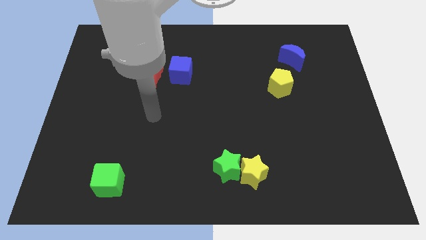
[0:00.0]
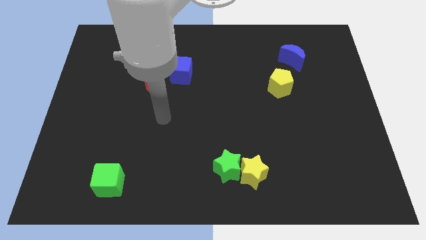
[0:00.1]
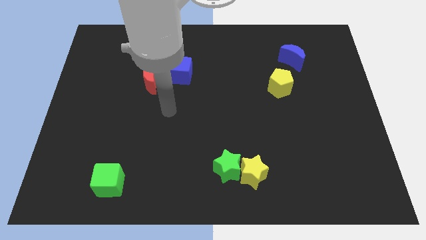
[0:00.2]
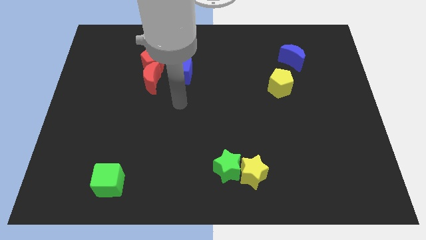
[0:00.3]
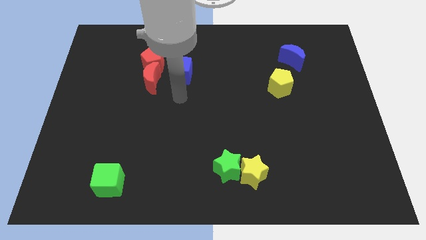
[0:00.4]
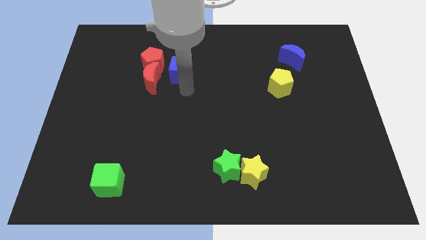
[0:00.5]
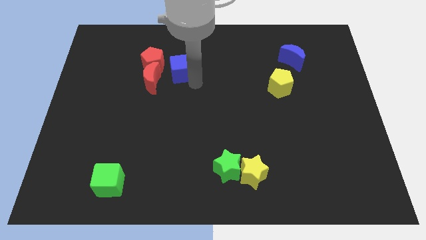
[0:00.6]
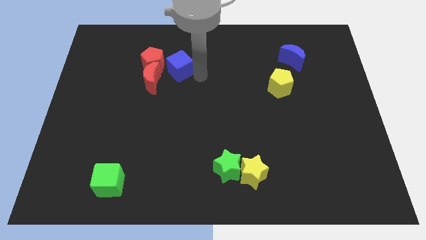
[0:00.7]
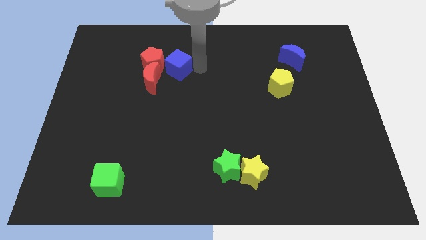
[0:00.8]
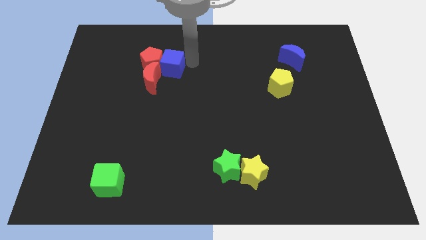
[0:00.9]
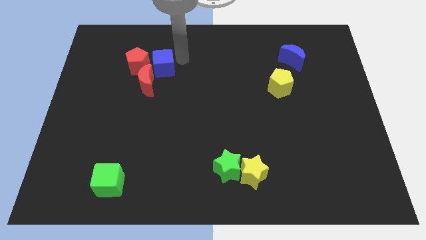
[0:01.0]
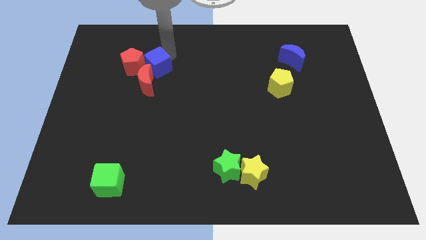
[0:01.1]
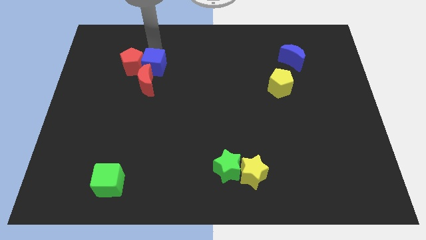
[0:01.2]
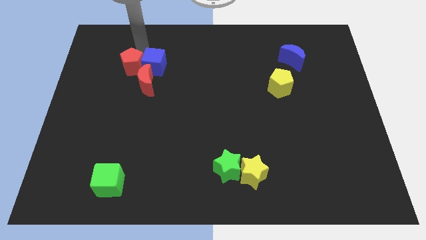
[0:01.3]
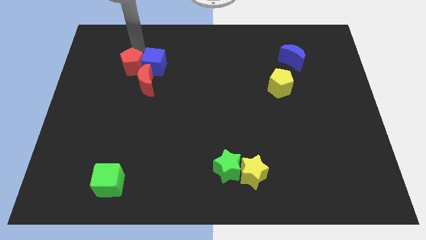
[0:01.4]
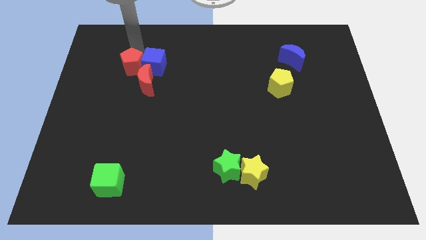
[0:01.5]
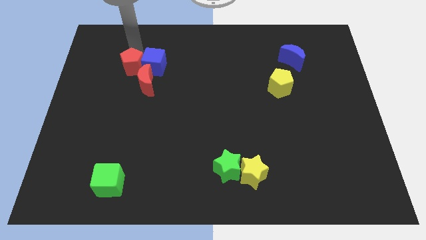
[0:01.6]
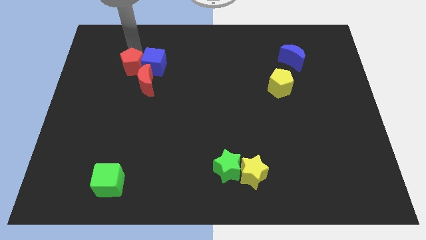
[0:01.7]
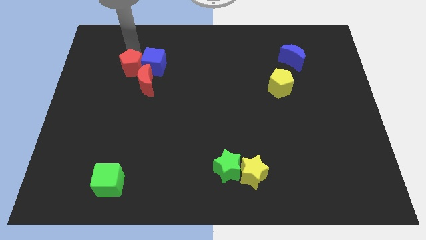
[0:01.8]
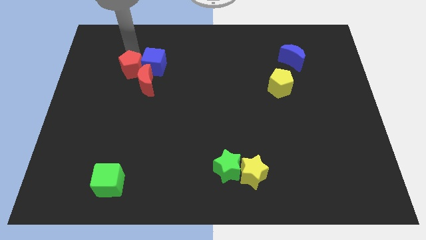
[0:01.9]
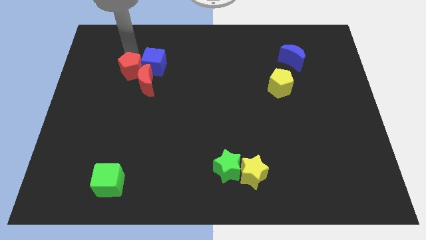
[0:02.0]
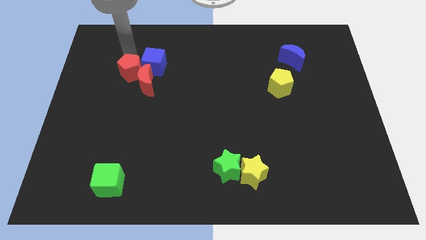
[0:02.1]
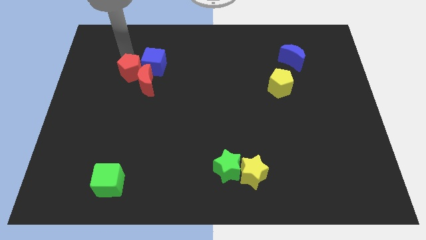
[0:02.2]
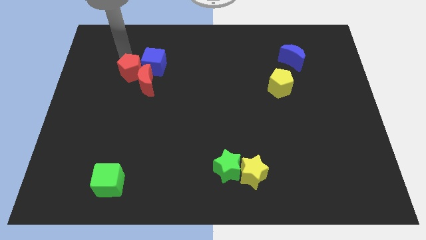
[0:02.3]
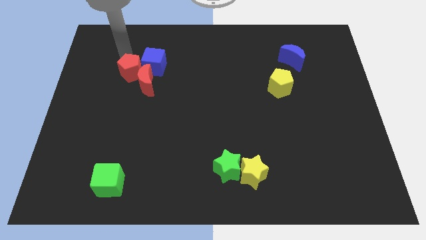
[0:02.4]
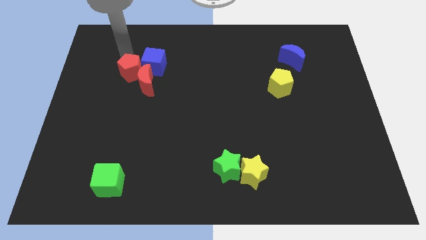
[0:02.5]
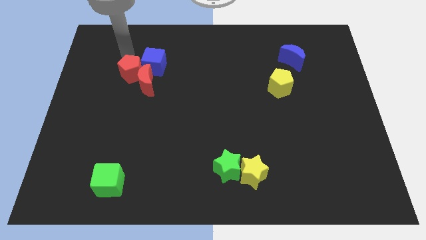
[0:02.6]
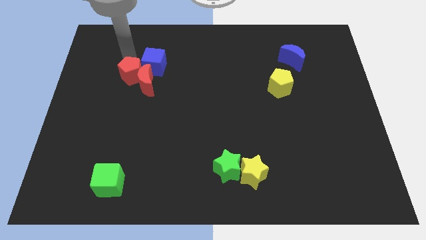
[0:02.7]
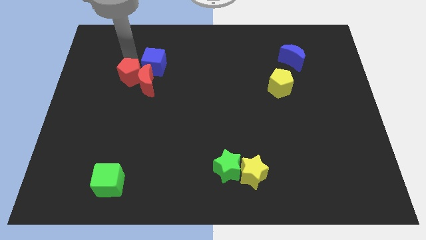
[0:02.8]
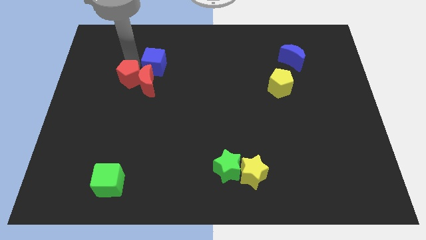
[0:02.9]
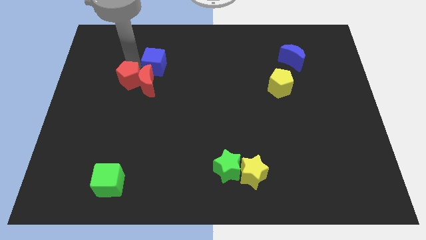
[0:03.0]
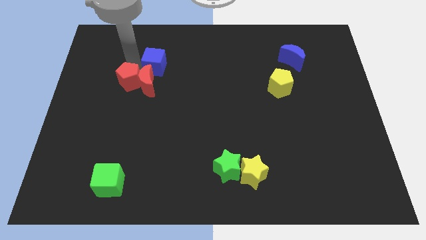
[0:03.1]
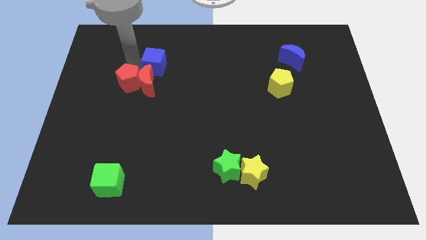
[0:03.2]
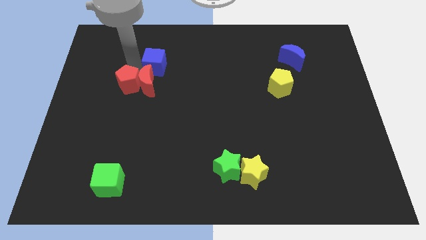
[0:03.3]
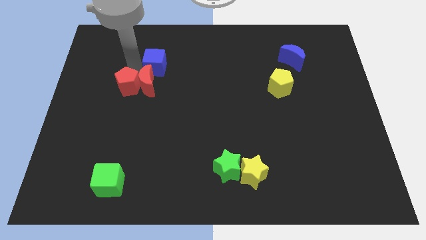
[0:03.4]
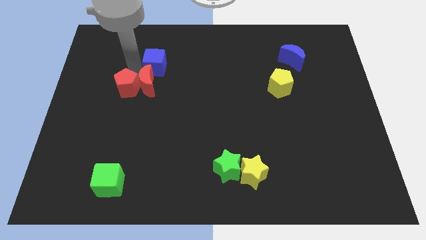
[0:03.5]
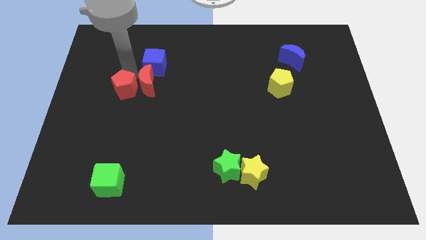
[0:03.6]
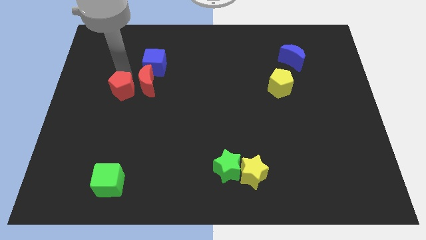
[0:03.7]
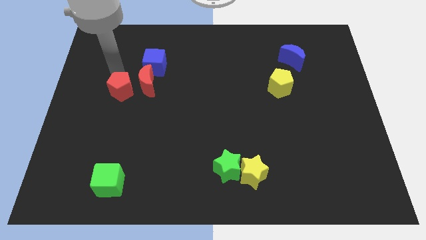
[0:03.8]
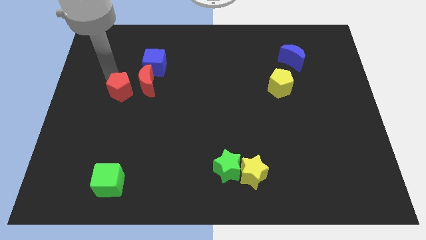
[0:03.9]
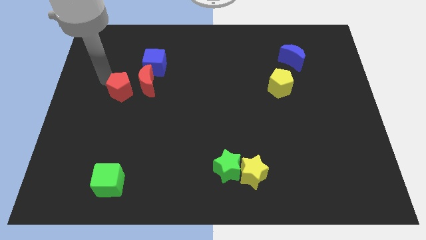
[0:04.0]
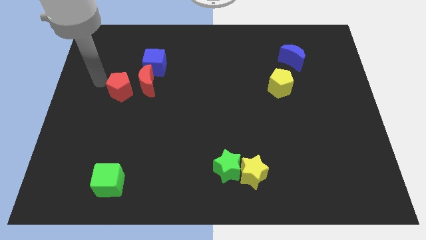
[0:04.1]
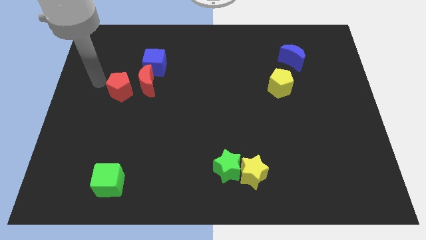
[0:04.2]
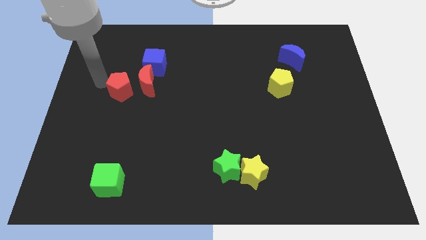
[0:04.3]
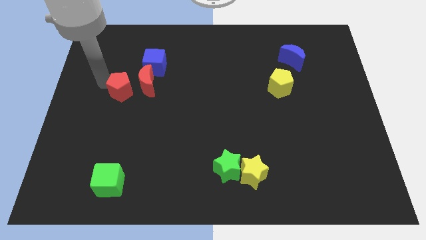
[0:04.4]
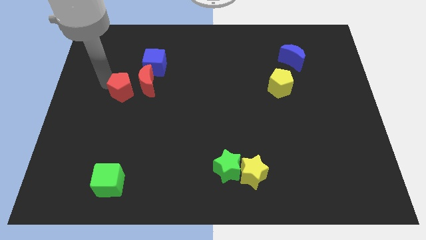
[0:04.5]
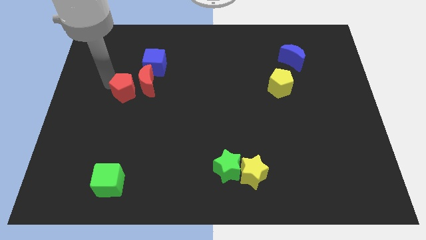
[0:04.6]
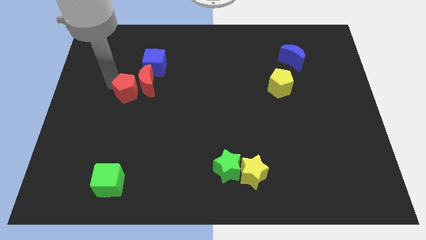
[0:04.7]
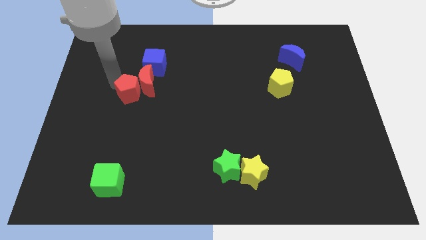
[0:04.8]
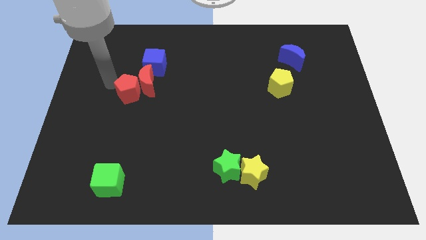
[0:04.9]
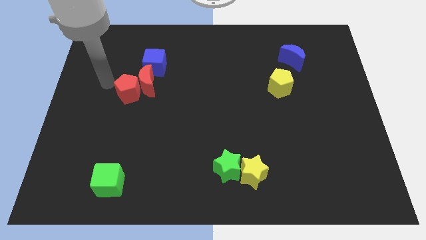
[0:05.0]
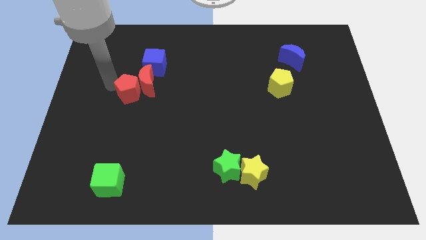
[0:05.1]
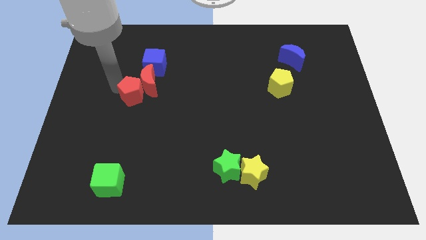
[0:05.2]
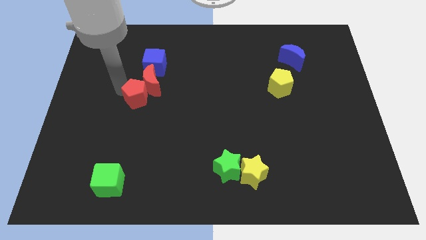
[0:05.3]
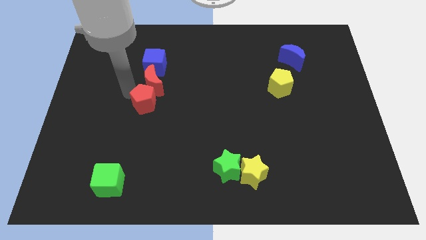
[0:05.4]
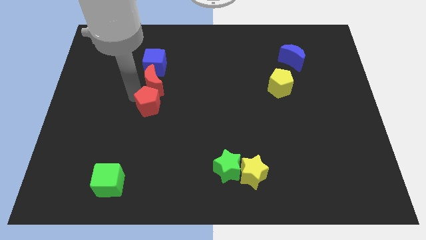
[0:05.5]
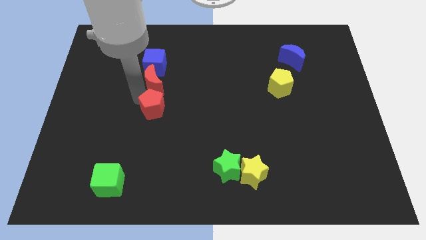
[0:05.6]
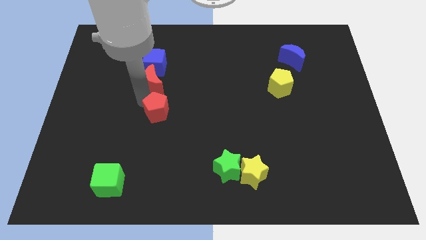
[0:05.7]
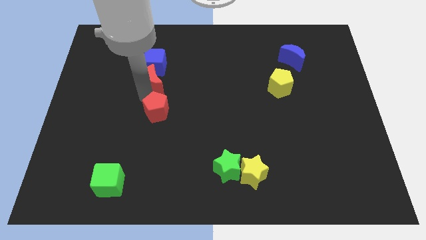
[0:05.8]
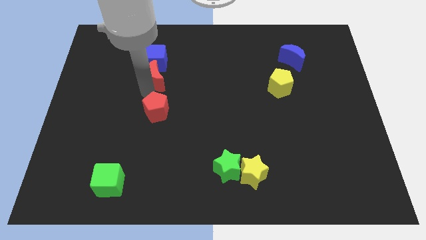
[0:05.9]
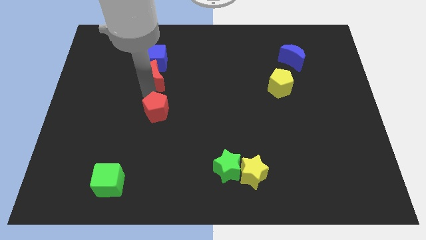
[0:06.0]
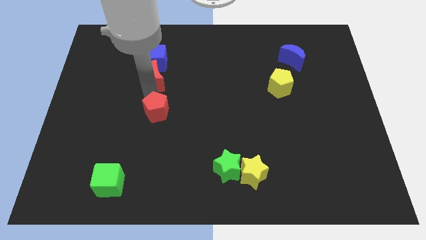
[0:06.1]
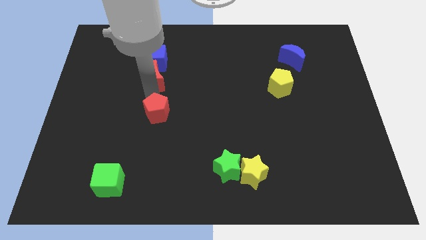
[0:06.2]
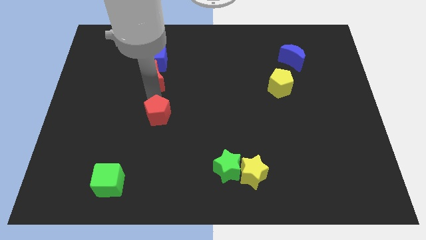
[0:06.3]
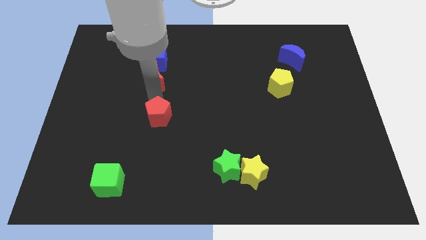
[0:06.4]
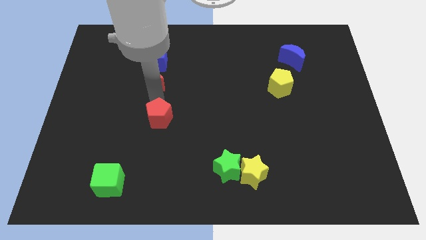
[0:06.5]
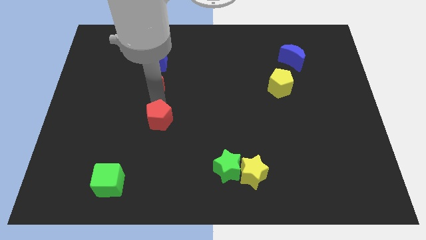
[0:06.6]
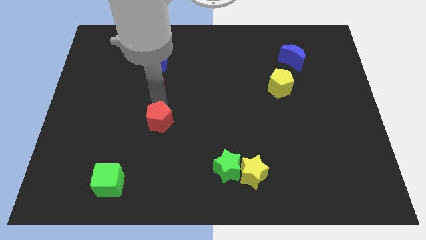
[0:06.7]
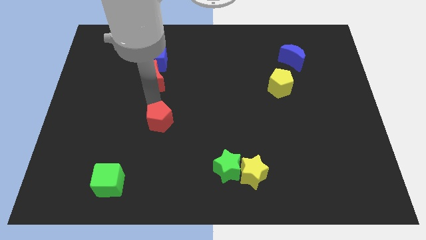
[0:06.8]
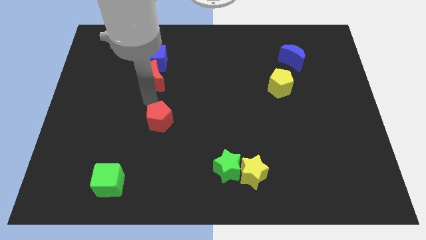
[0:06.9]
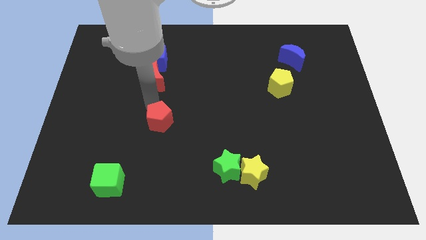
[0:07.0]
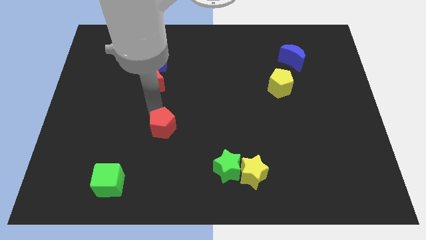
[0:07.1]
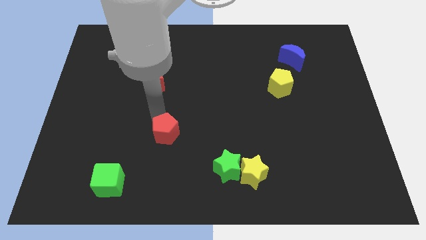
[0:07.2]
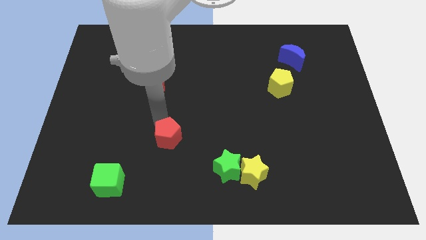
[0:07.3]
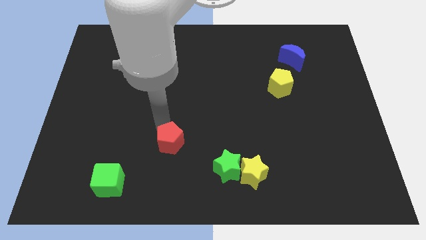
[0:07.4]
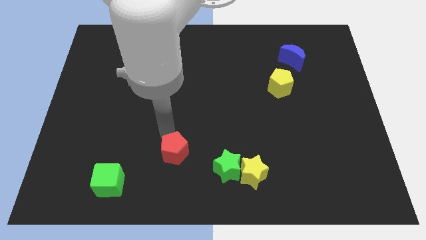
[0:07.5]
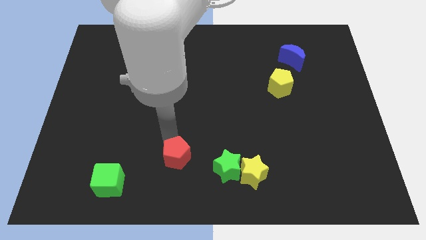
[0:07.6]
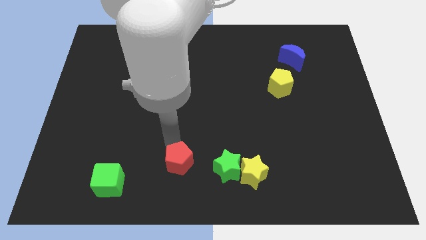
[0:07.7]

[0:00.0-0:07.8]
put the red pentagon to the bottom side
